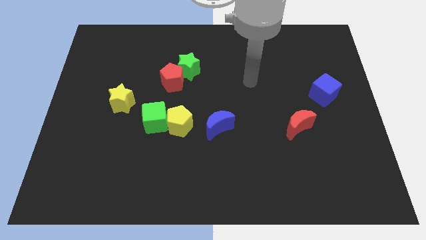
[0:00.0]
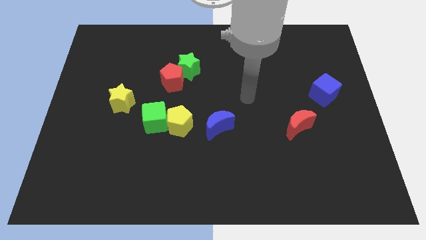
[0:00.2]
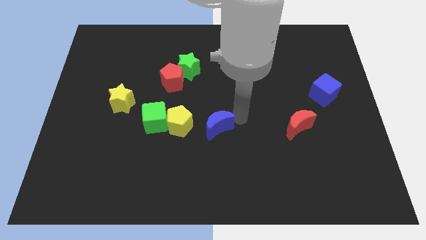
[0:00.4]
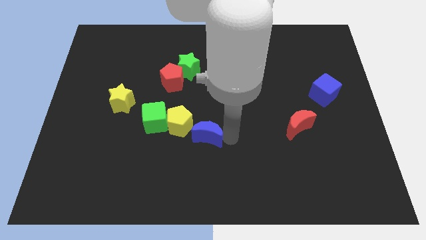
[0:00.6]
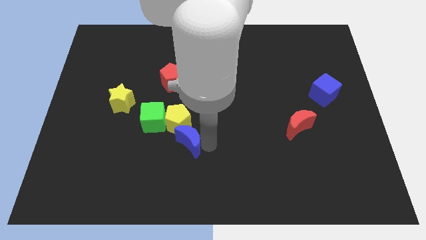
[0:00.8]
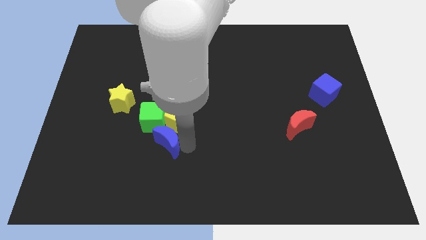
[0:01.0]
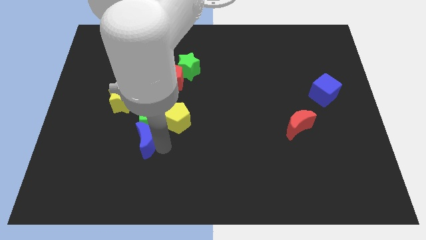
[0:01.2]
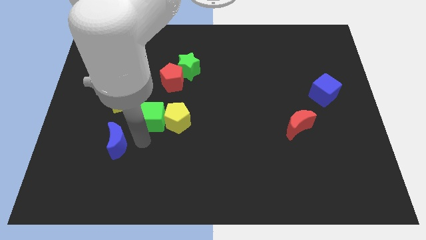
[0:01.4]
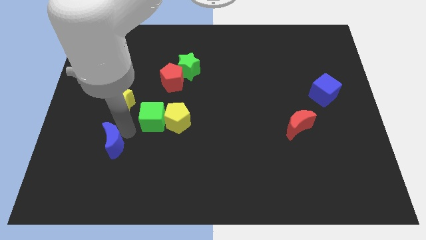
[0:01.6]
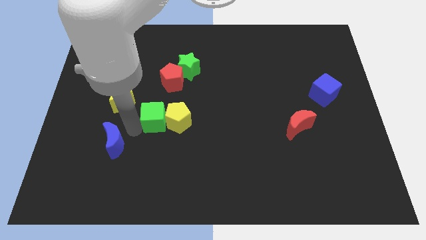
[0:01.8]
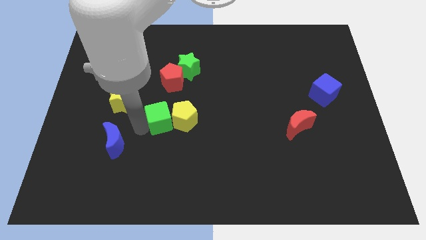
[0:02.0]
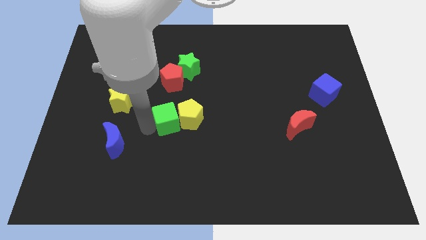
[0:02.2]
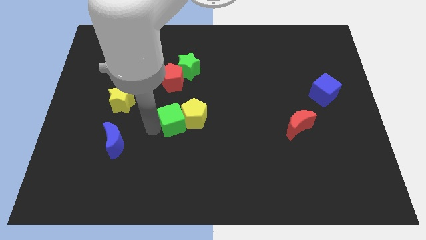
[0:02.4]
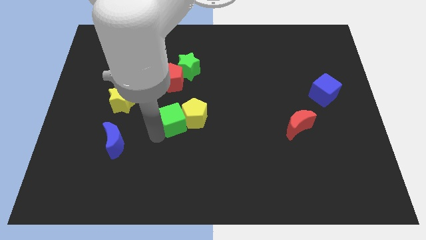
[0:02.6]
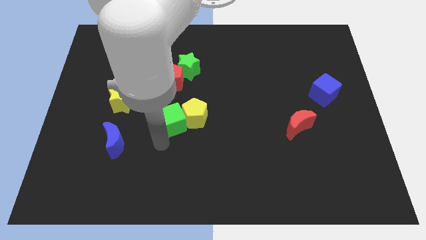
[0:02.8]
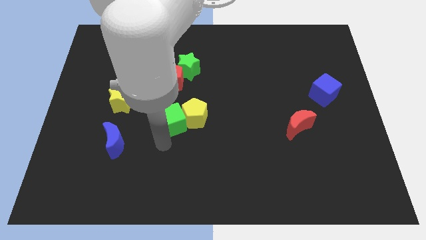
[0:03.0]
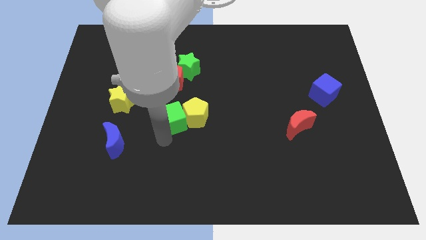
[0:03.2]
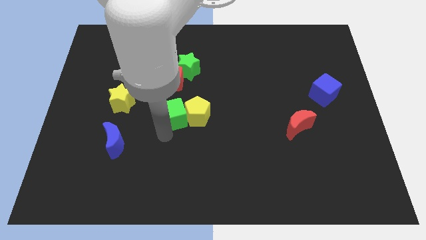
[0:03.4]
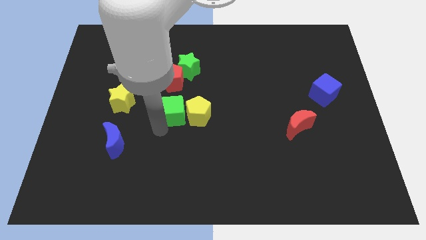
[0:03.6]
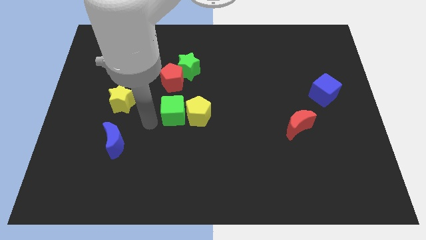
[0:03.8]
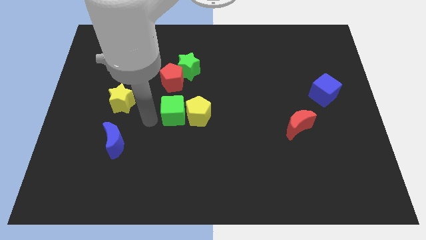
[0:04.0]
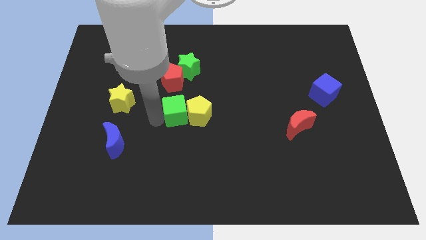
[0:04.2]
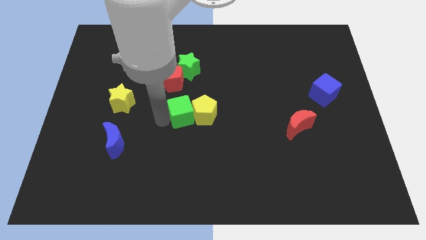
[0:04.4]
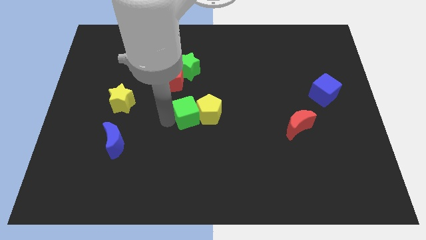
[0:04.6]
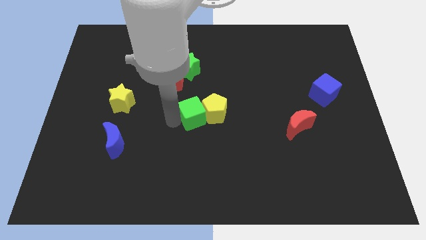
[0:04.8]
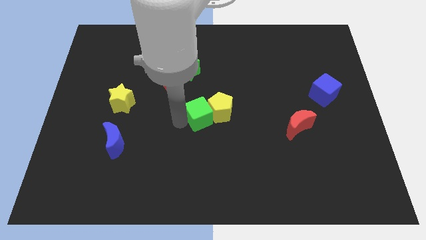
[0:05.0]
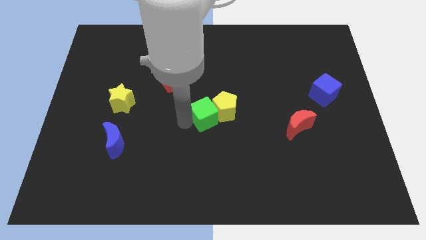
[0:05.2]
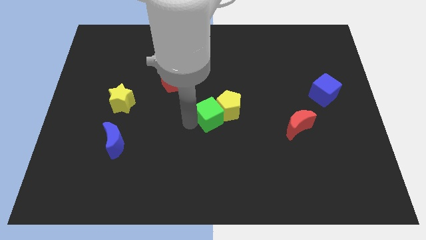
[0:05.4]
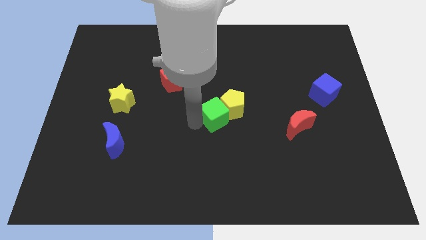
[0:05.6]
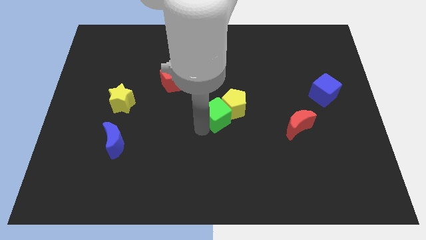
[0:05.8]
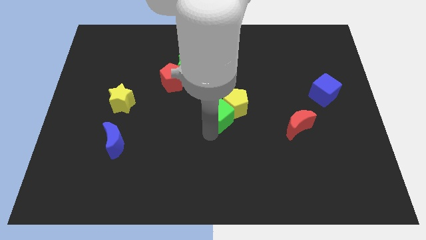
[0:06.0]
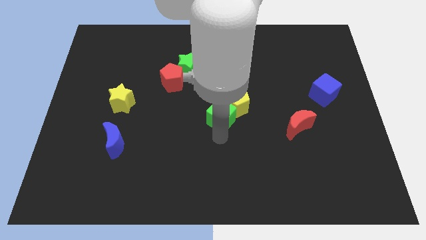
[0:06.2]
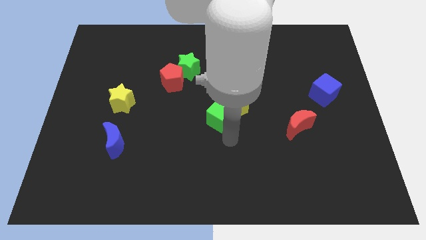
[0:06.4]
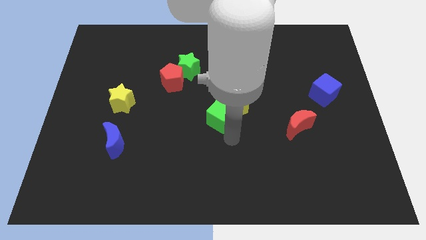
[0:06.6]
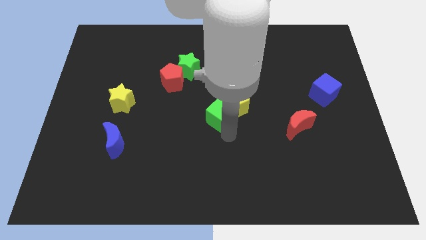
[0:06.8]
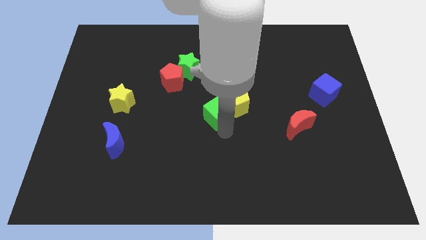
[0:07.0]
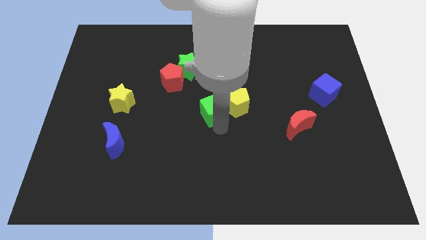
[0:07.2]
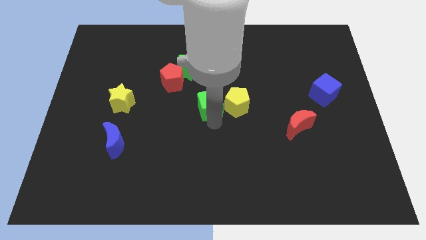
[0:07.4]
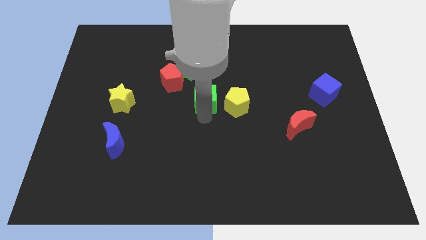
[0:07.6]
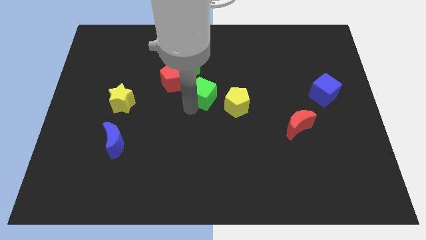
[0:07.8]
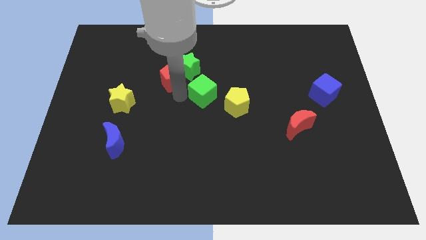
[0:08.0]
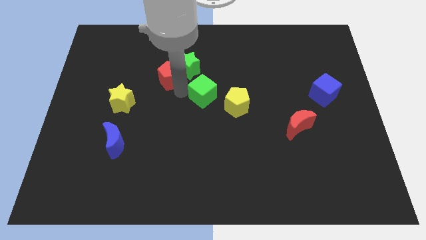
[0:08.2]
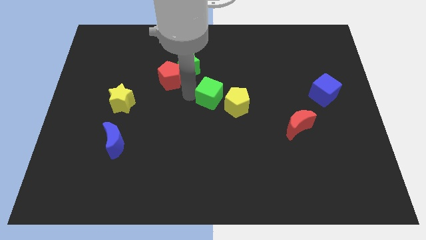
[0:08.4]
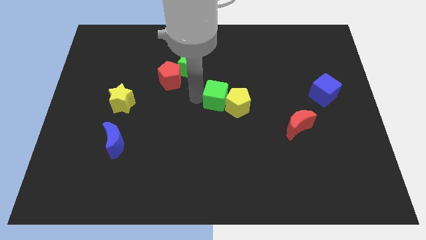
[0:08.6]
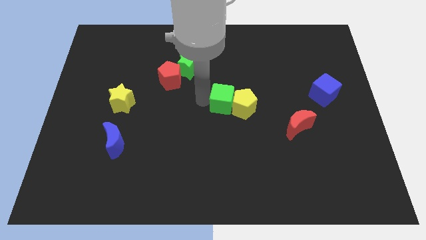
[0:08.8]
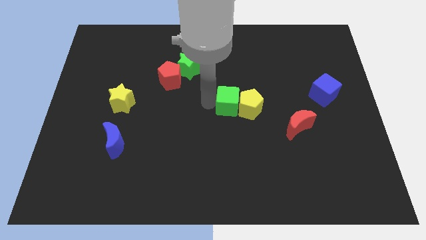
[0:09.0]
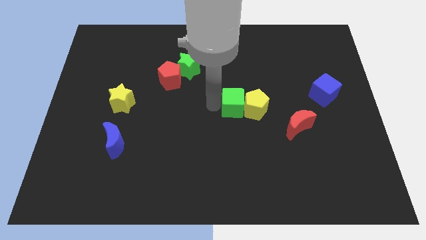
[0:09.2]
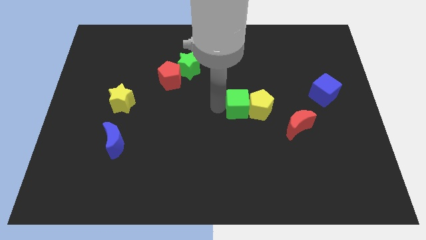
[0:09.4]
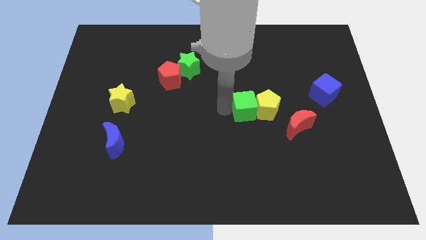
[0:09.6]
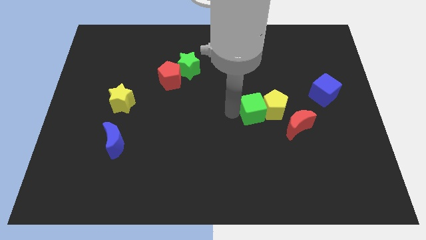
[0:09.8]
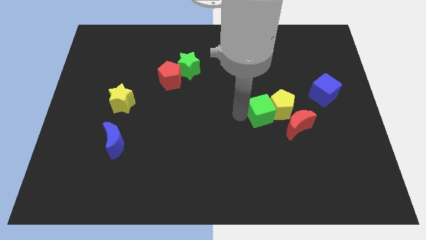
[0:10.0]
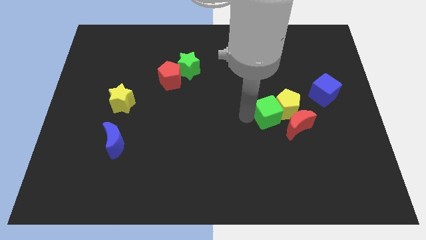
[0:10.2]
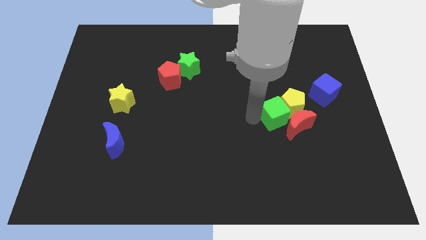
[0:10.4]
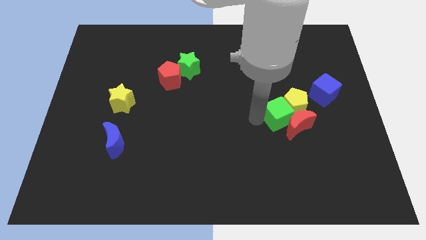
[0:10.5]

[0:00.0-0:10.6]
slide the green cube to the top side of the red moon

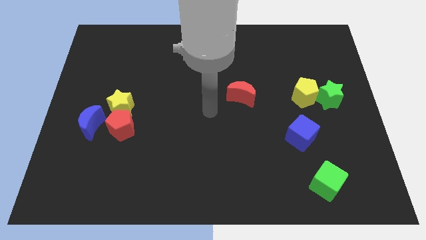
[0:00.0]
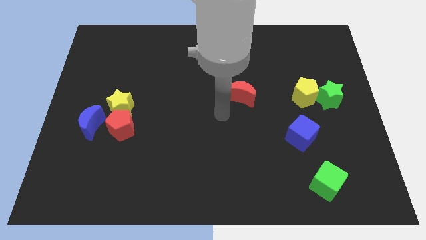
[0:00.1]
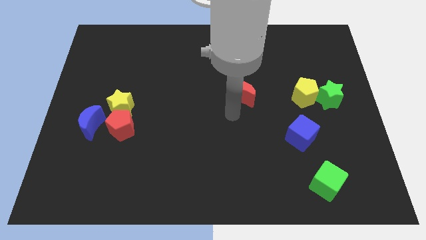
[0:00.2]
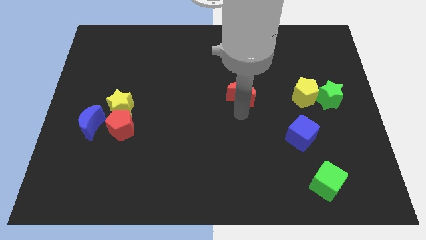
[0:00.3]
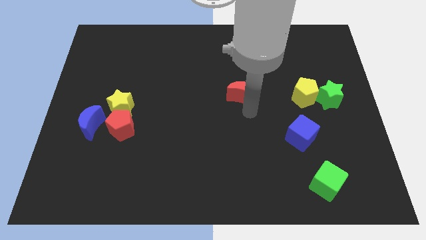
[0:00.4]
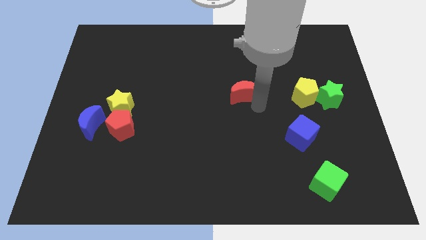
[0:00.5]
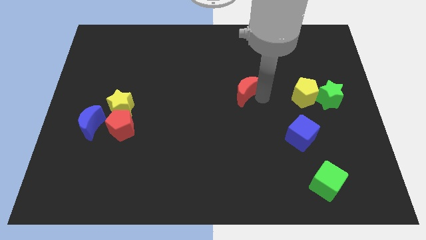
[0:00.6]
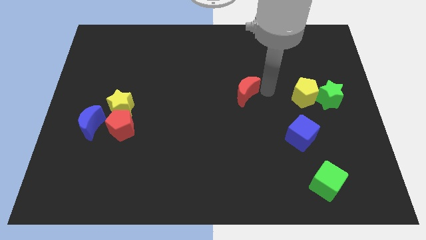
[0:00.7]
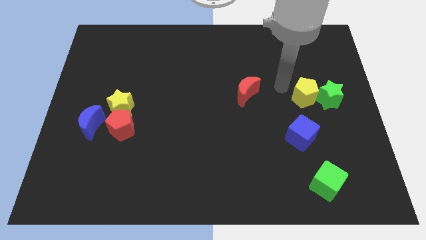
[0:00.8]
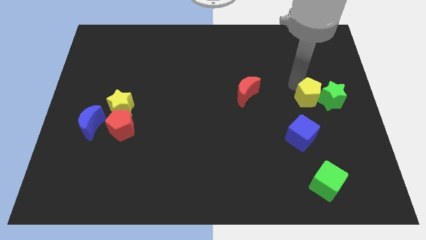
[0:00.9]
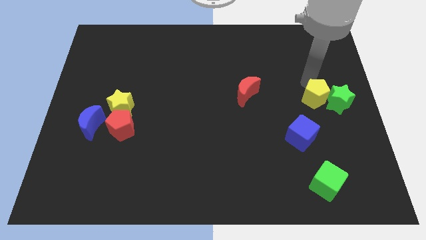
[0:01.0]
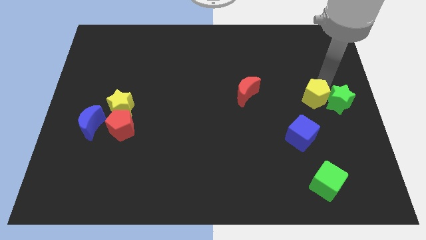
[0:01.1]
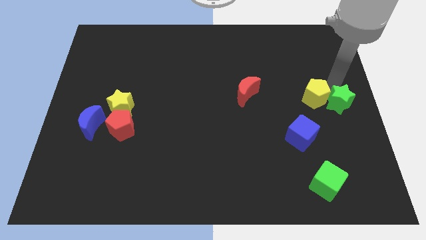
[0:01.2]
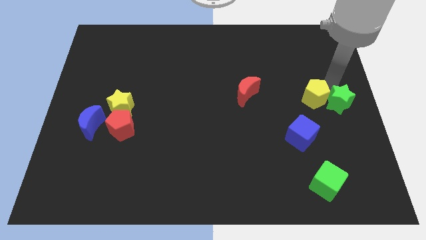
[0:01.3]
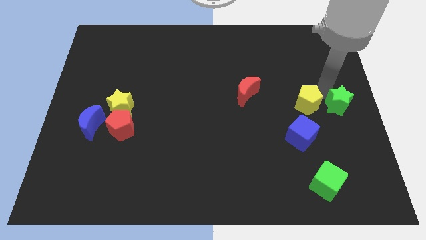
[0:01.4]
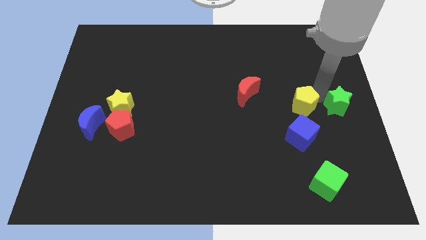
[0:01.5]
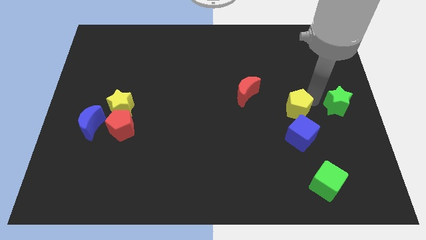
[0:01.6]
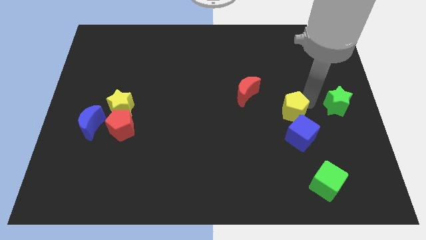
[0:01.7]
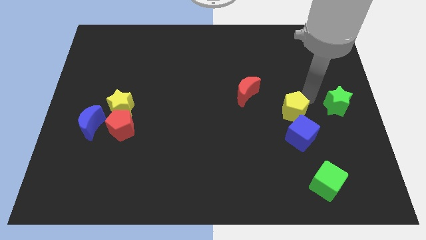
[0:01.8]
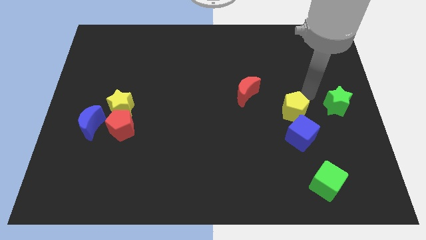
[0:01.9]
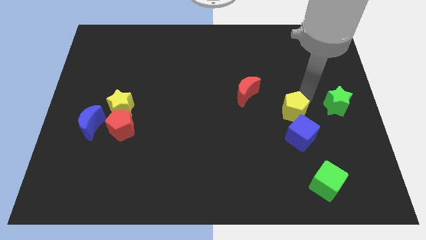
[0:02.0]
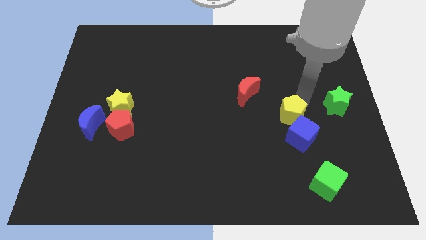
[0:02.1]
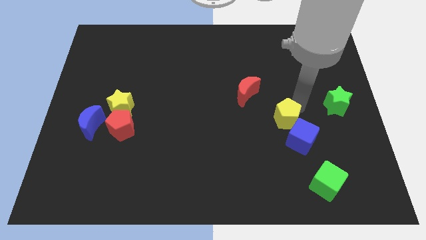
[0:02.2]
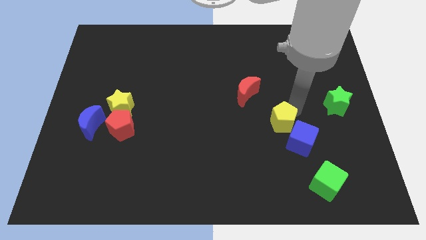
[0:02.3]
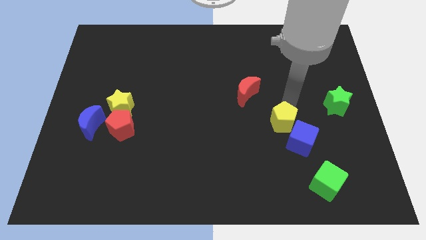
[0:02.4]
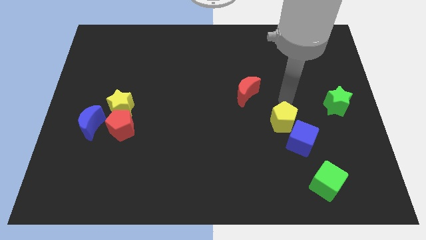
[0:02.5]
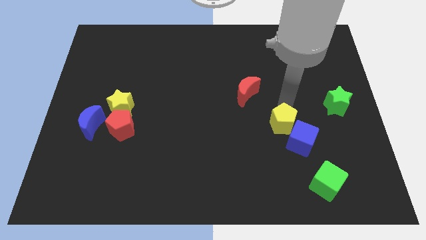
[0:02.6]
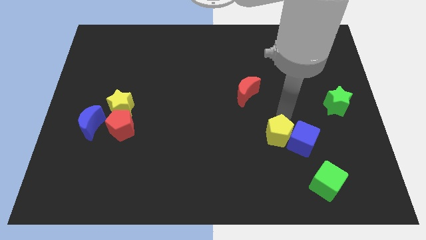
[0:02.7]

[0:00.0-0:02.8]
slide the yellow pentagon to the bottom left of the blue cube
